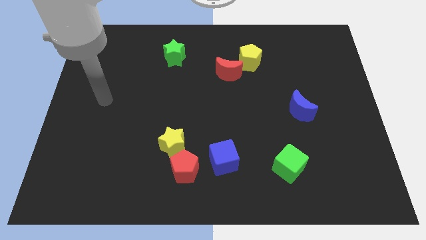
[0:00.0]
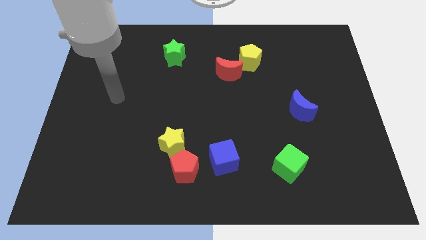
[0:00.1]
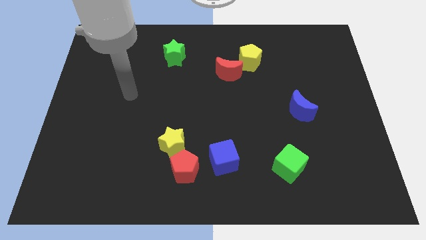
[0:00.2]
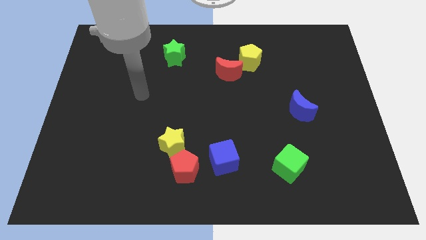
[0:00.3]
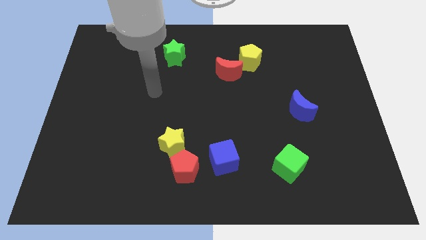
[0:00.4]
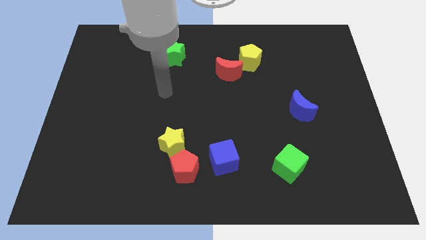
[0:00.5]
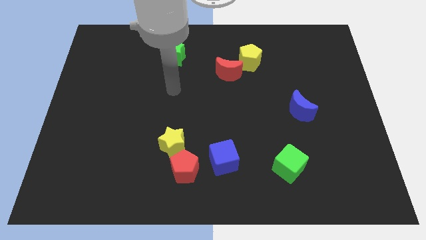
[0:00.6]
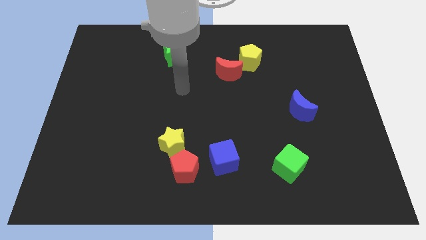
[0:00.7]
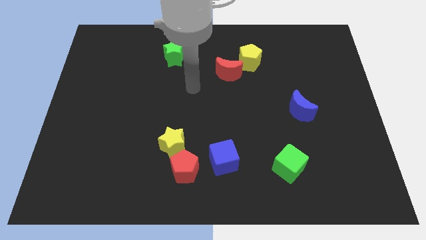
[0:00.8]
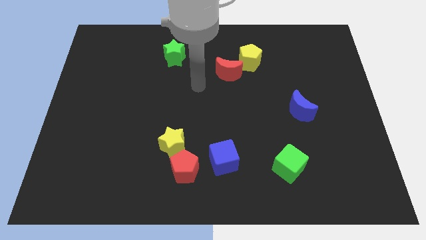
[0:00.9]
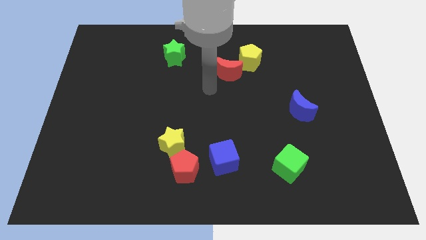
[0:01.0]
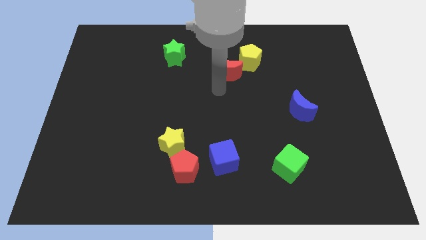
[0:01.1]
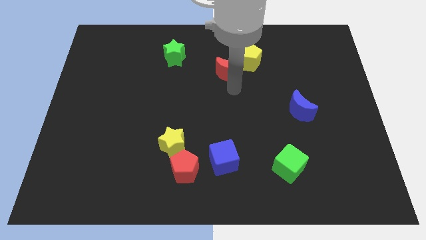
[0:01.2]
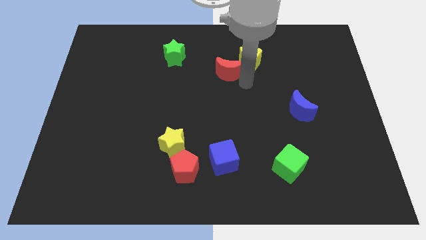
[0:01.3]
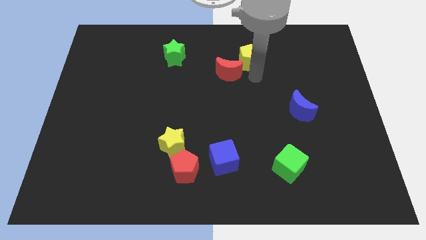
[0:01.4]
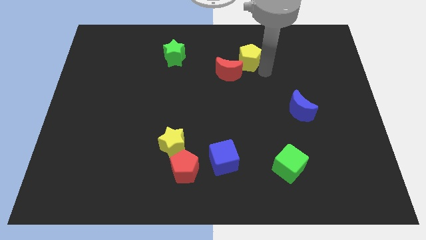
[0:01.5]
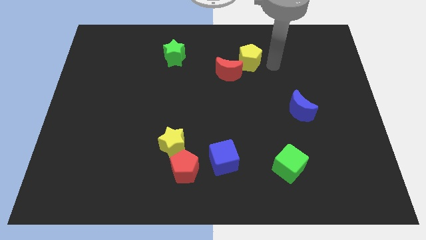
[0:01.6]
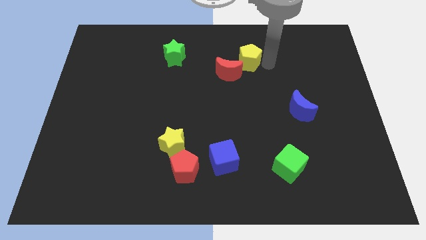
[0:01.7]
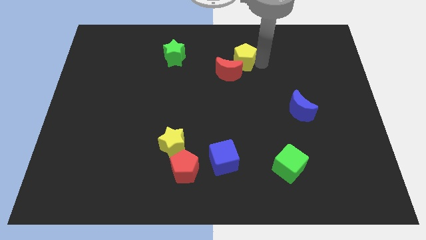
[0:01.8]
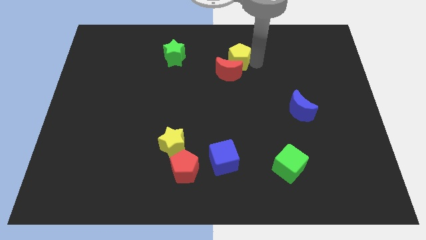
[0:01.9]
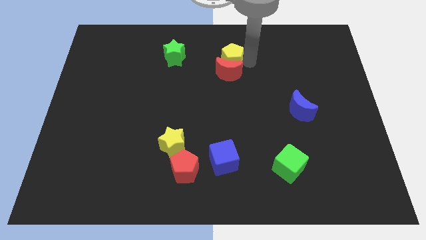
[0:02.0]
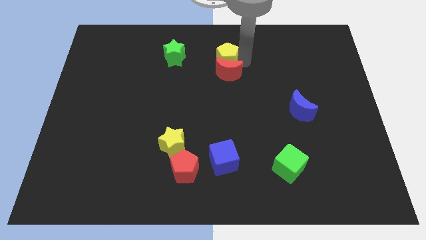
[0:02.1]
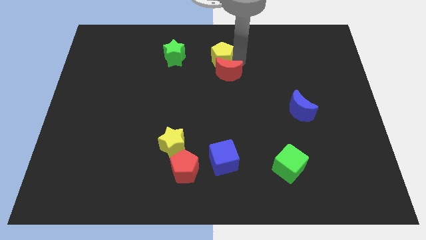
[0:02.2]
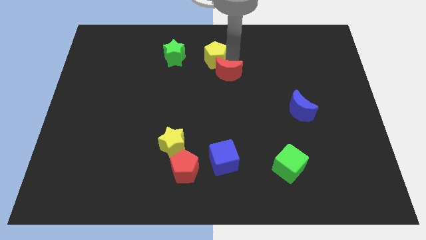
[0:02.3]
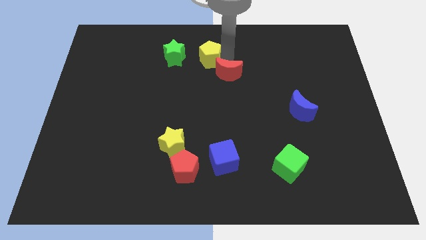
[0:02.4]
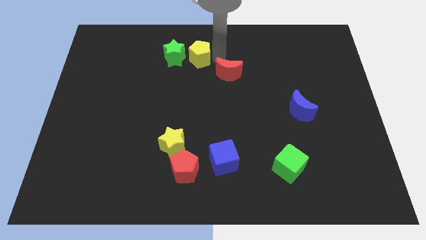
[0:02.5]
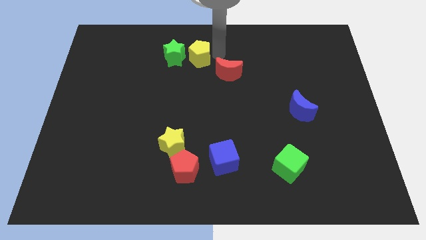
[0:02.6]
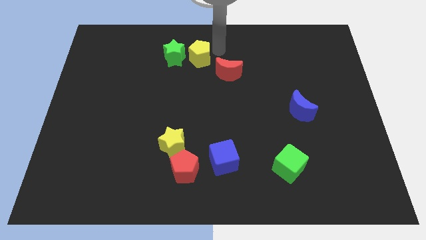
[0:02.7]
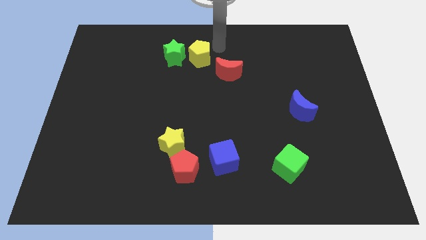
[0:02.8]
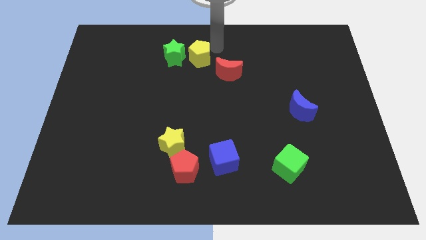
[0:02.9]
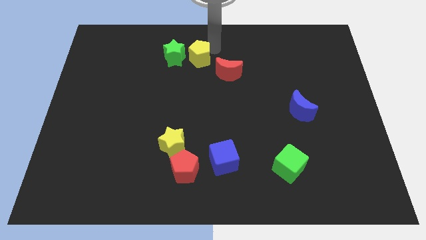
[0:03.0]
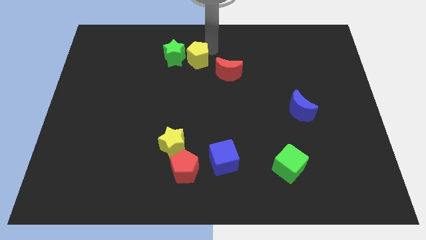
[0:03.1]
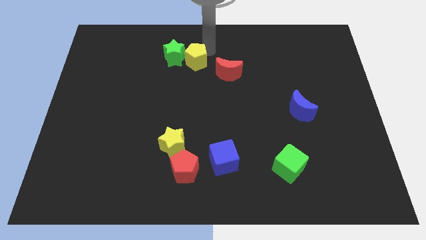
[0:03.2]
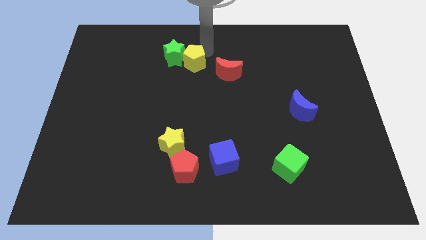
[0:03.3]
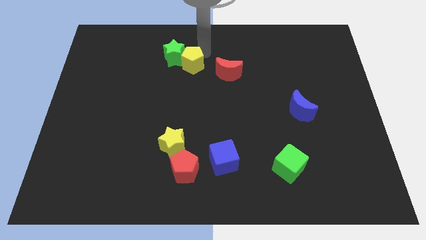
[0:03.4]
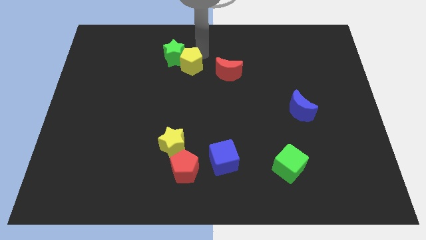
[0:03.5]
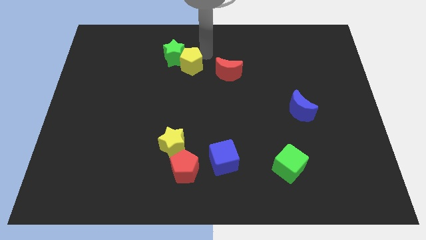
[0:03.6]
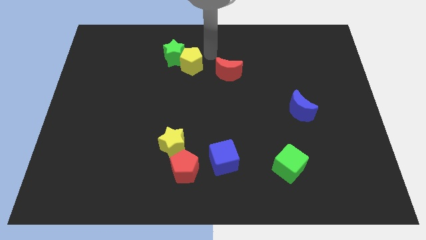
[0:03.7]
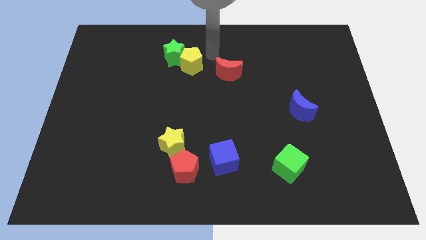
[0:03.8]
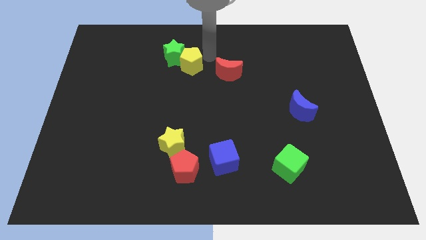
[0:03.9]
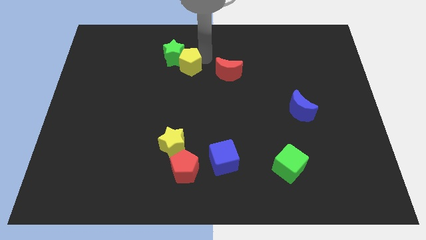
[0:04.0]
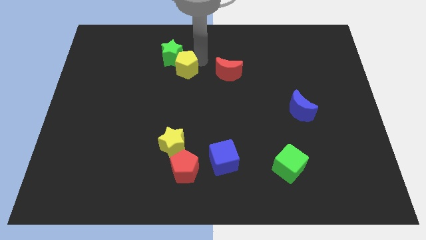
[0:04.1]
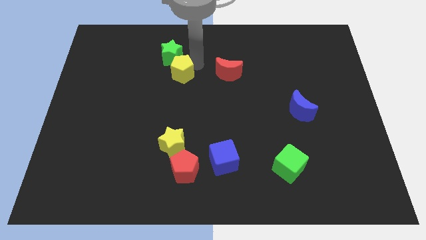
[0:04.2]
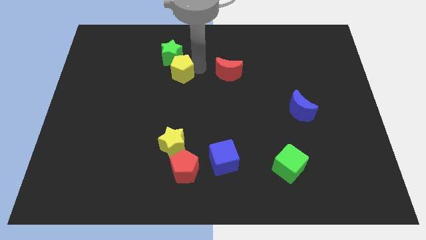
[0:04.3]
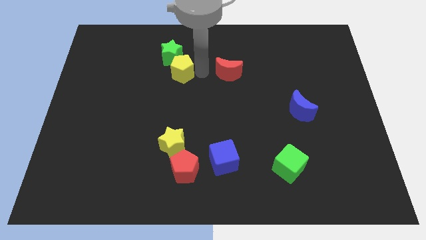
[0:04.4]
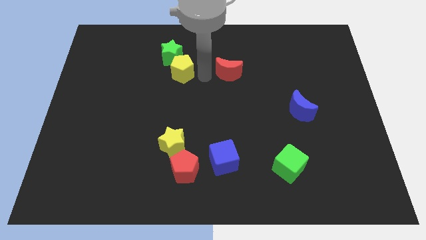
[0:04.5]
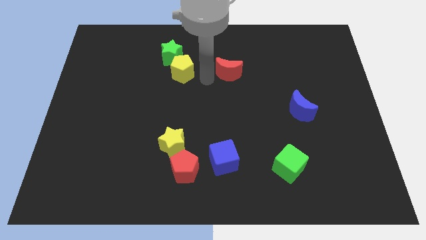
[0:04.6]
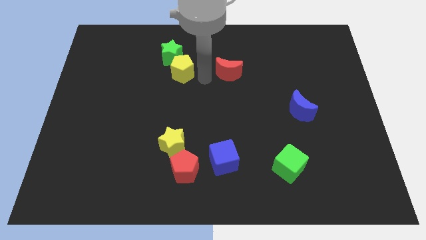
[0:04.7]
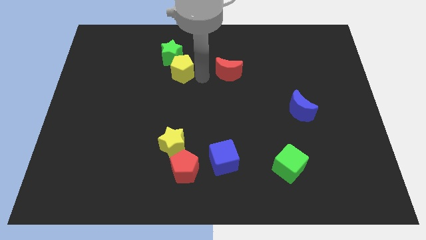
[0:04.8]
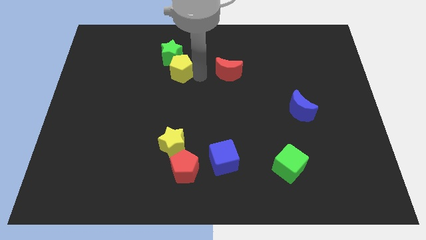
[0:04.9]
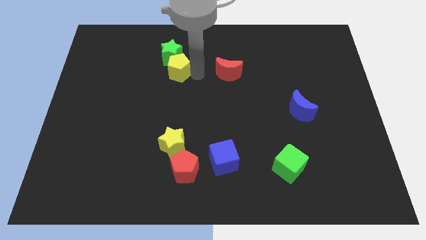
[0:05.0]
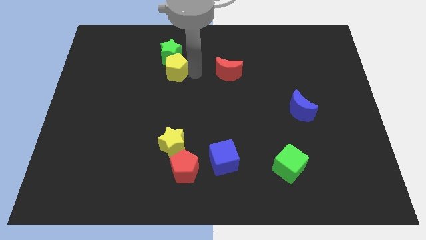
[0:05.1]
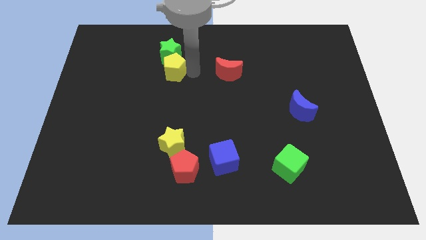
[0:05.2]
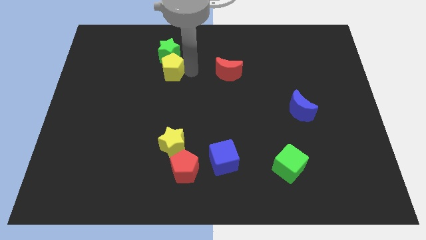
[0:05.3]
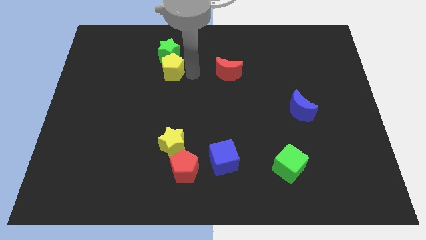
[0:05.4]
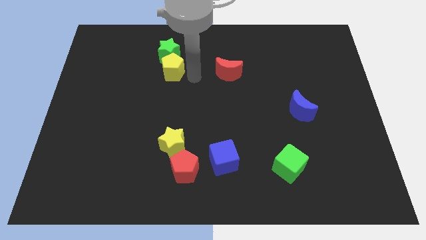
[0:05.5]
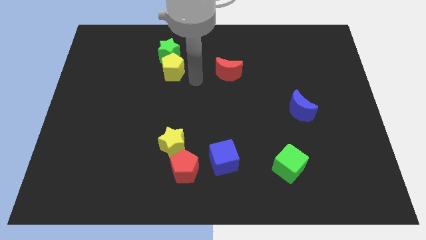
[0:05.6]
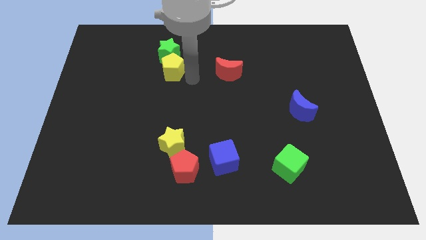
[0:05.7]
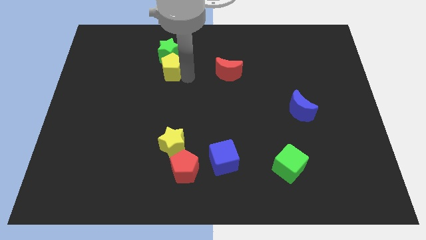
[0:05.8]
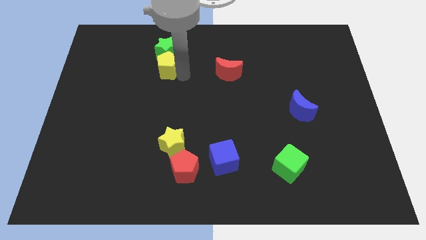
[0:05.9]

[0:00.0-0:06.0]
push the yellow pentagon left

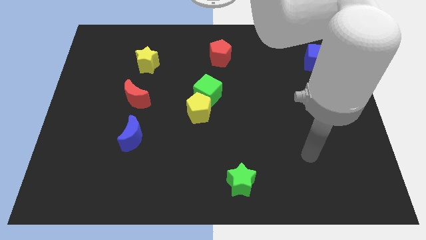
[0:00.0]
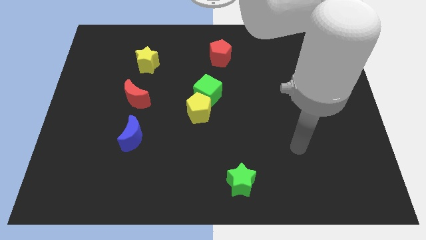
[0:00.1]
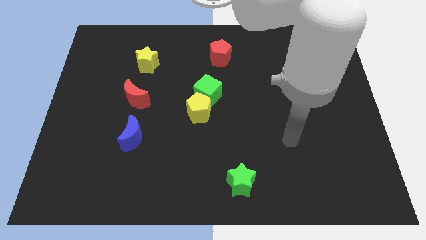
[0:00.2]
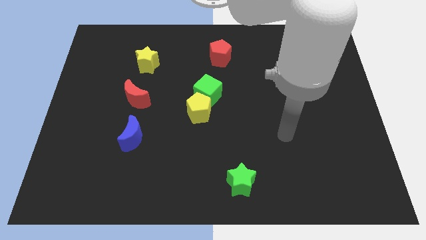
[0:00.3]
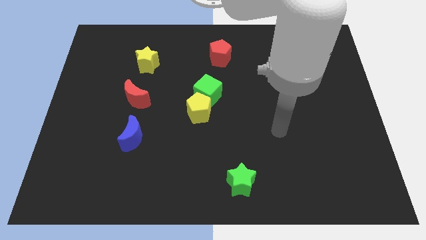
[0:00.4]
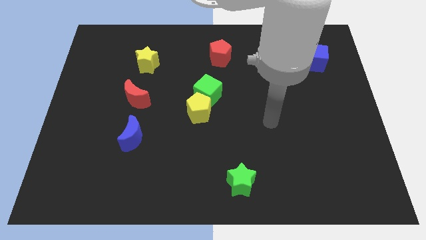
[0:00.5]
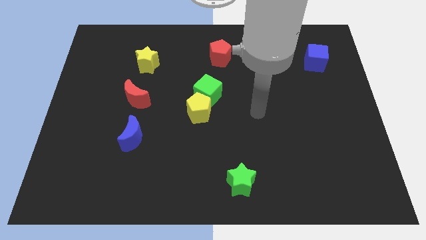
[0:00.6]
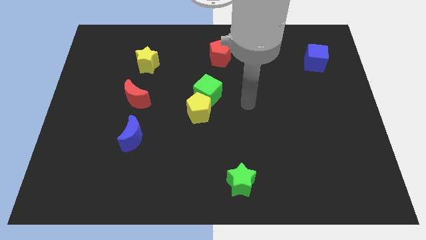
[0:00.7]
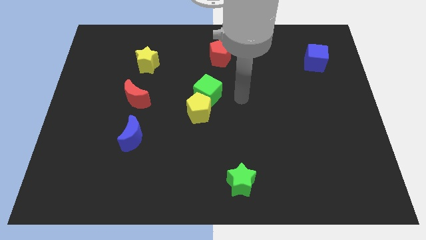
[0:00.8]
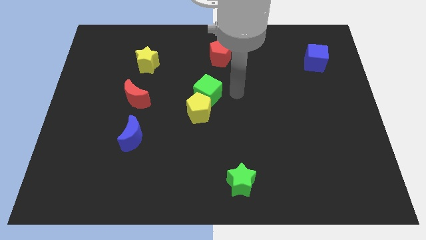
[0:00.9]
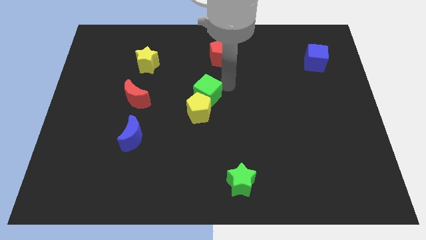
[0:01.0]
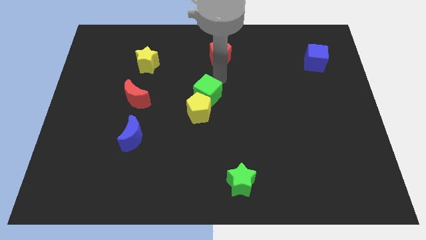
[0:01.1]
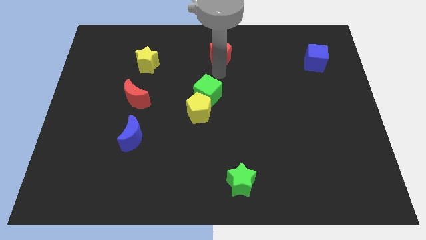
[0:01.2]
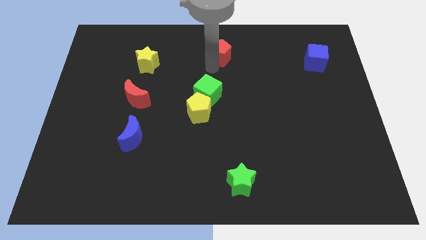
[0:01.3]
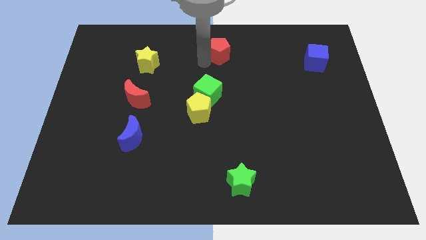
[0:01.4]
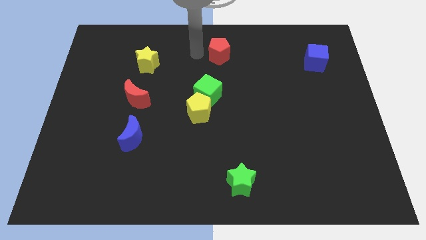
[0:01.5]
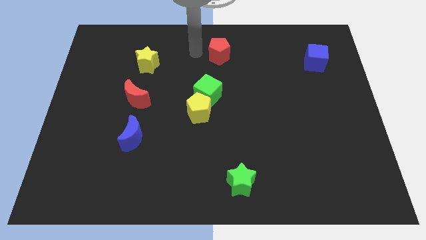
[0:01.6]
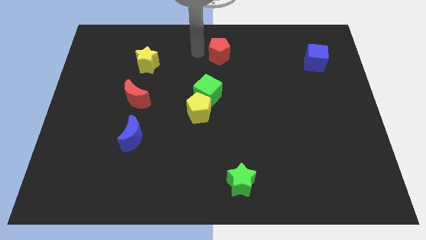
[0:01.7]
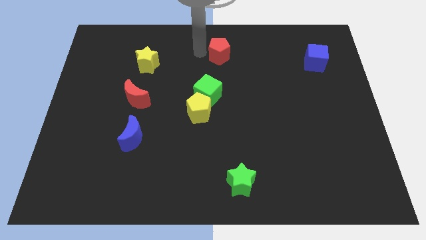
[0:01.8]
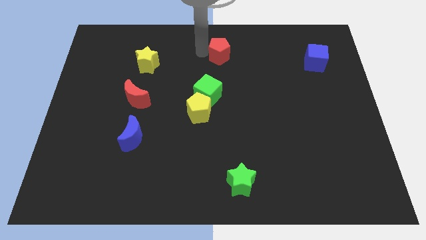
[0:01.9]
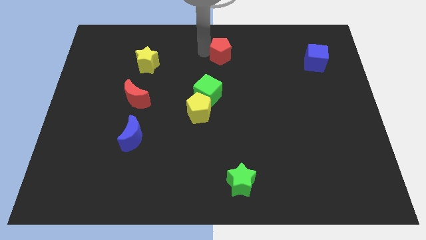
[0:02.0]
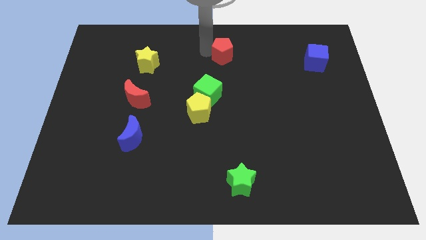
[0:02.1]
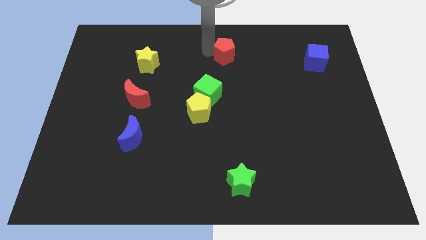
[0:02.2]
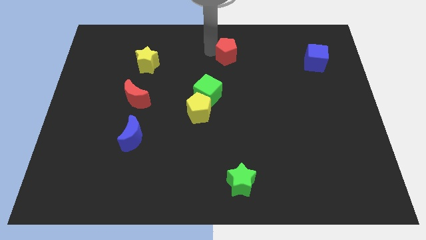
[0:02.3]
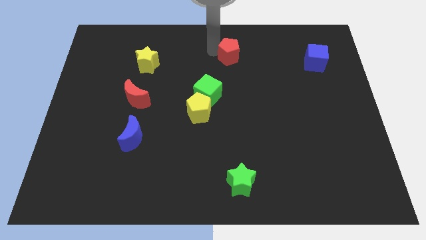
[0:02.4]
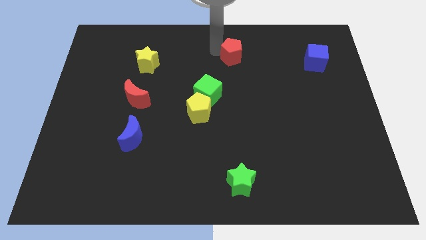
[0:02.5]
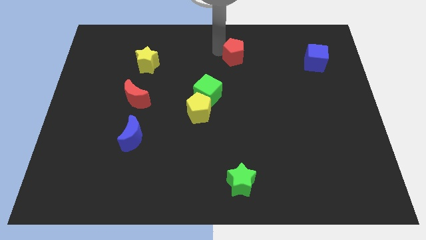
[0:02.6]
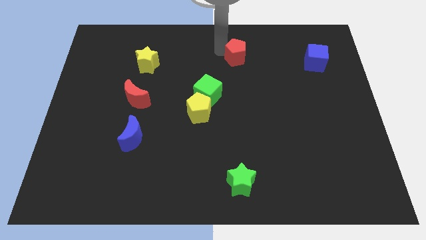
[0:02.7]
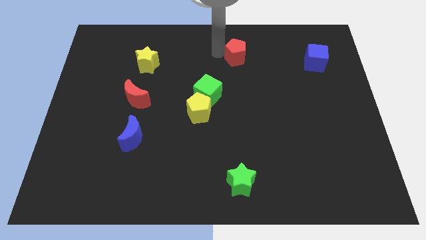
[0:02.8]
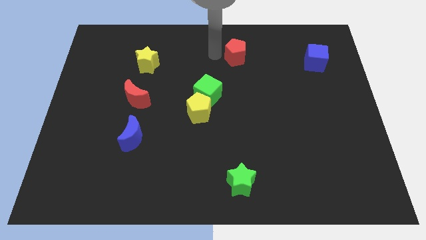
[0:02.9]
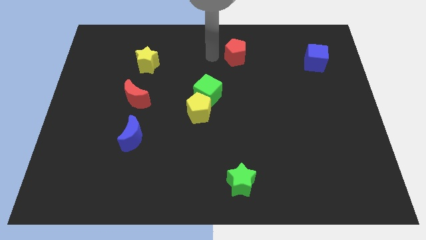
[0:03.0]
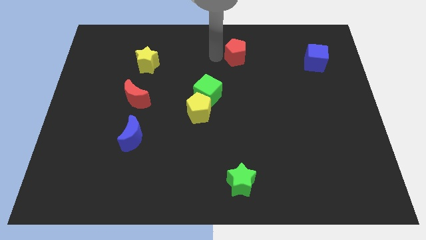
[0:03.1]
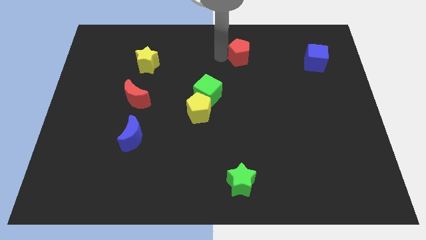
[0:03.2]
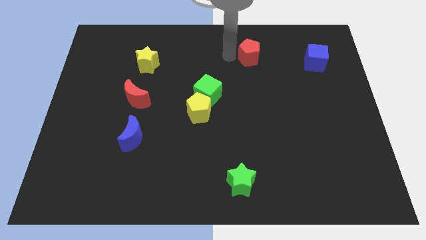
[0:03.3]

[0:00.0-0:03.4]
slightly move the red pentagon right
